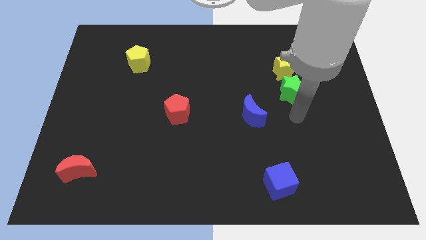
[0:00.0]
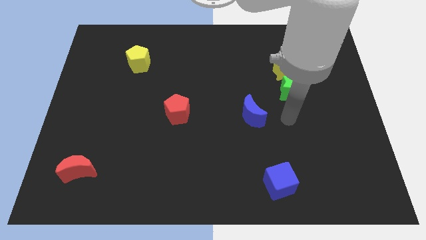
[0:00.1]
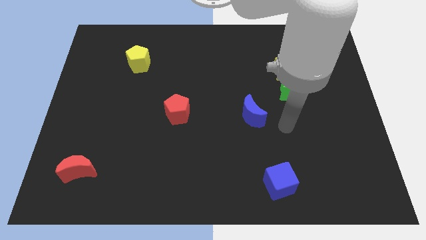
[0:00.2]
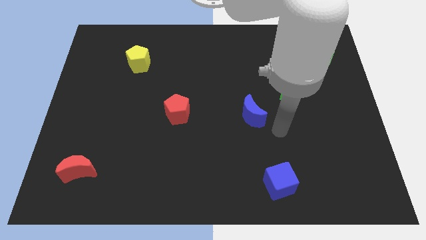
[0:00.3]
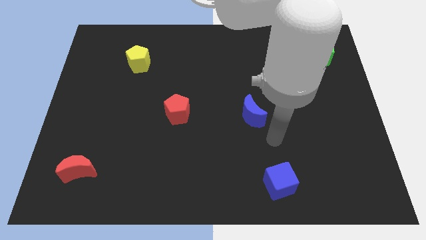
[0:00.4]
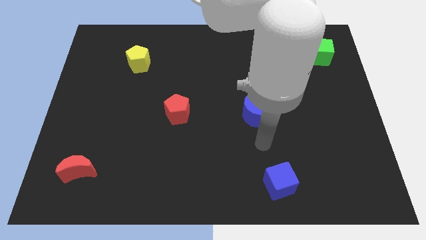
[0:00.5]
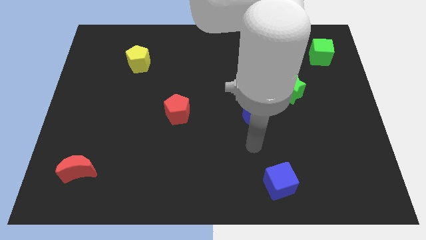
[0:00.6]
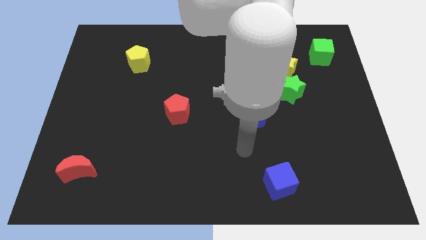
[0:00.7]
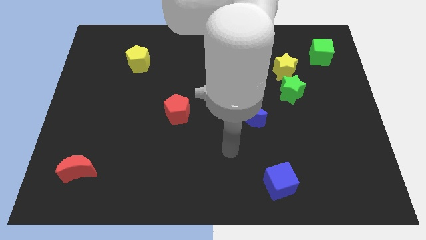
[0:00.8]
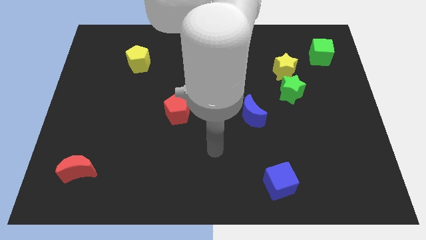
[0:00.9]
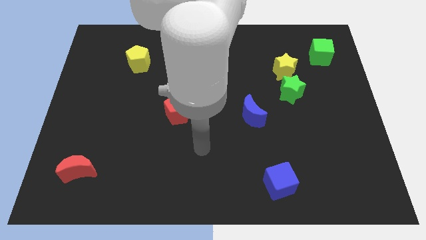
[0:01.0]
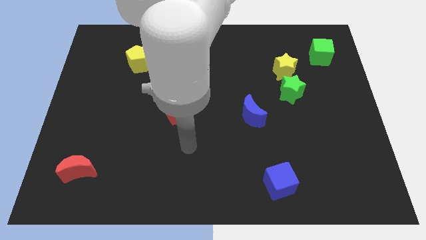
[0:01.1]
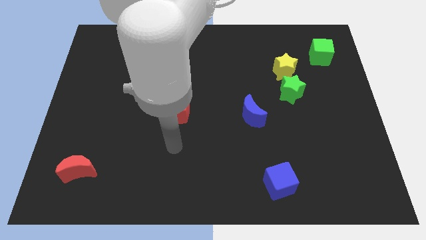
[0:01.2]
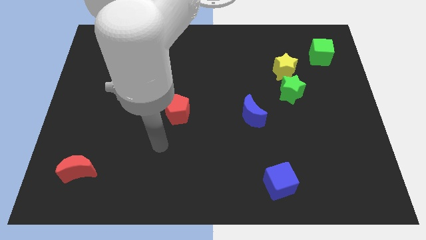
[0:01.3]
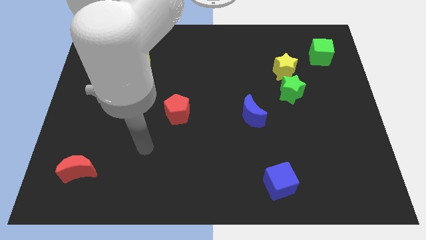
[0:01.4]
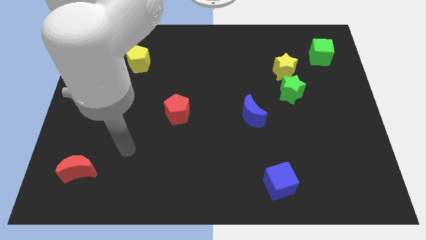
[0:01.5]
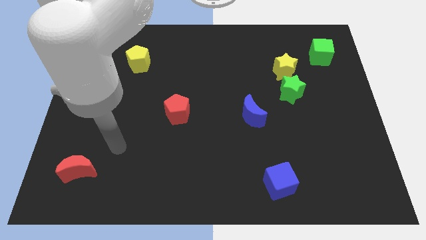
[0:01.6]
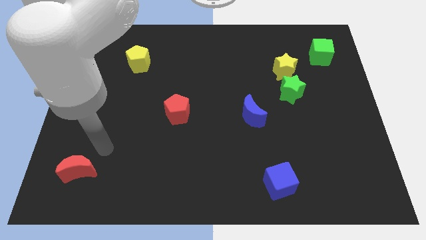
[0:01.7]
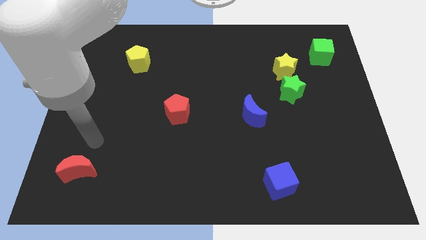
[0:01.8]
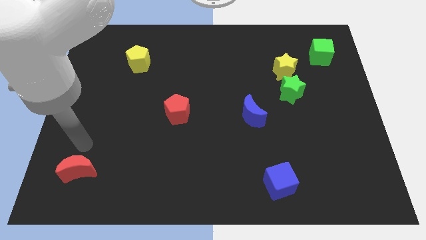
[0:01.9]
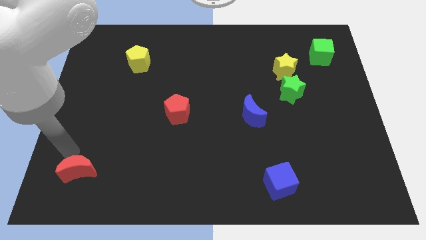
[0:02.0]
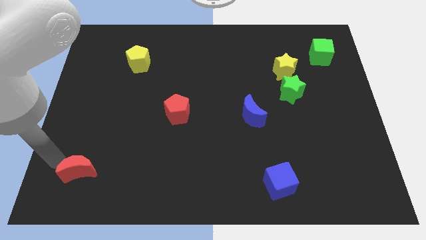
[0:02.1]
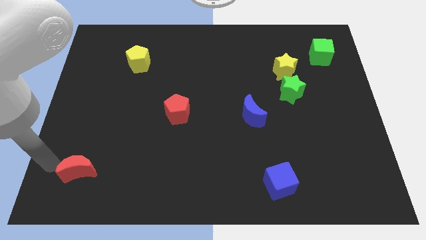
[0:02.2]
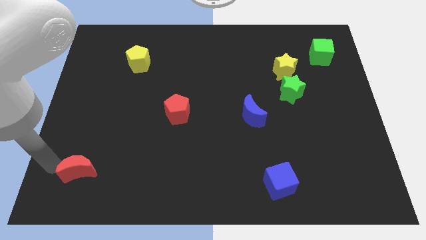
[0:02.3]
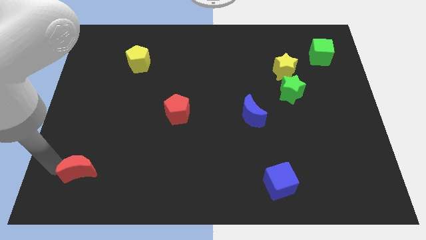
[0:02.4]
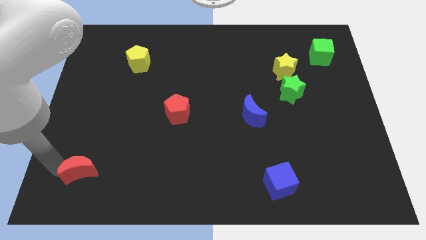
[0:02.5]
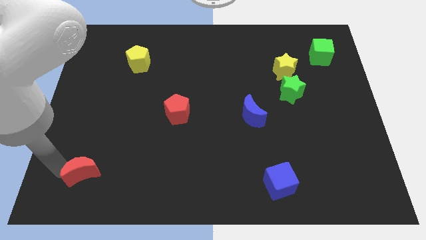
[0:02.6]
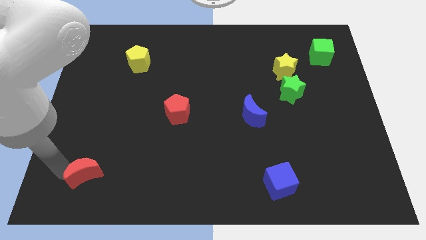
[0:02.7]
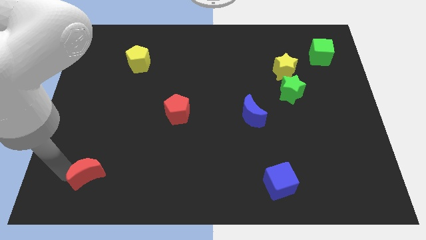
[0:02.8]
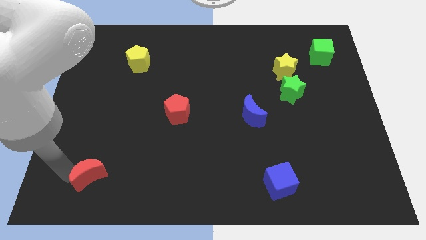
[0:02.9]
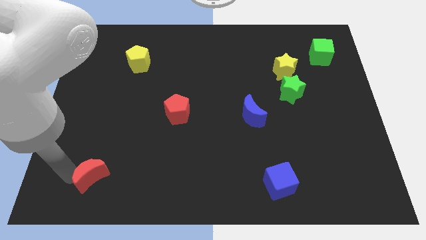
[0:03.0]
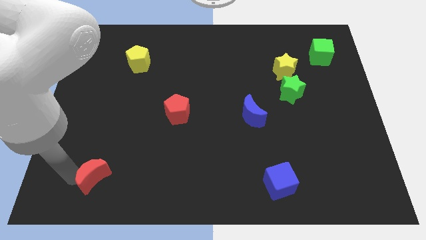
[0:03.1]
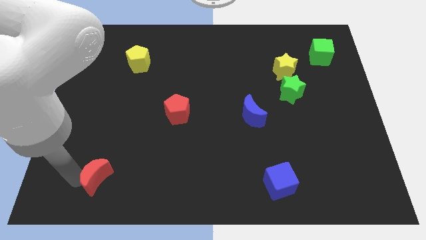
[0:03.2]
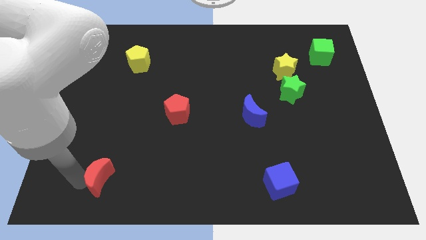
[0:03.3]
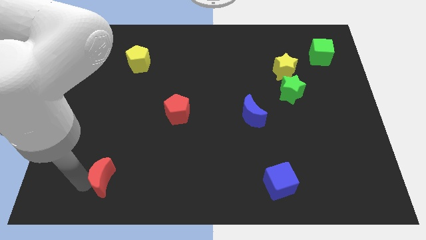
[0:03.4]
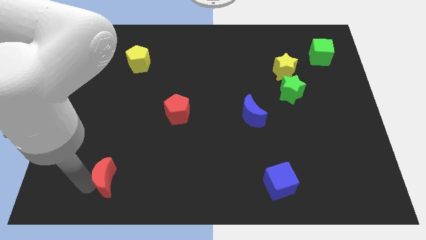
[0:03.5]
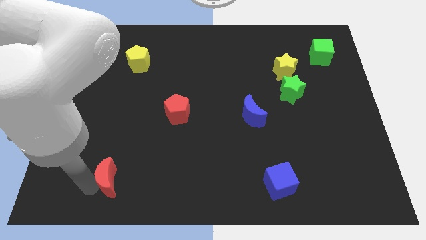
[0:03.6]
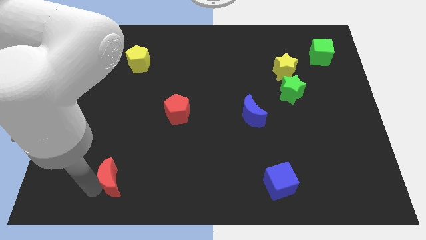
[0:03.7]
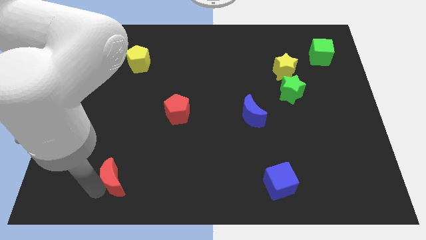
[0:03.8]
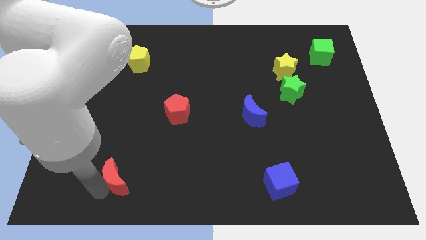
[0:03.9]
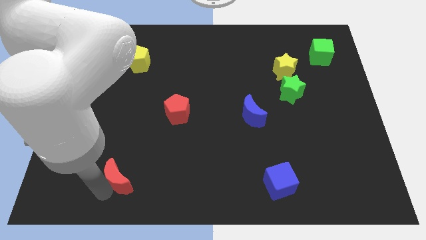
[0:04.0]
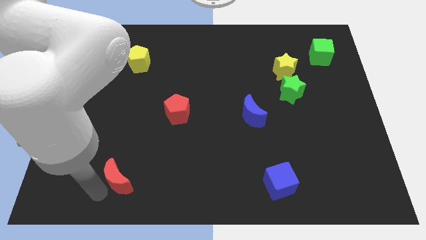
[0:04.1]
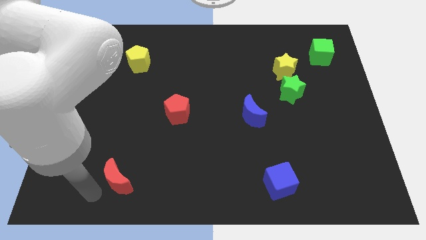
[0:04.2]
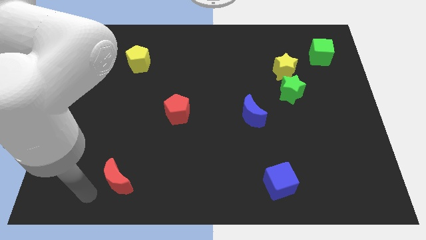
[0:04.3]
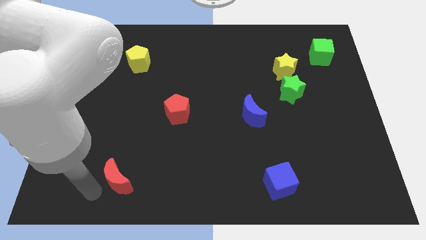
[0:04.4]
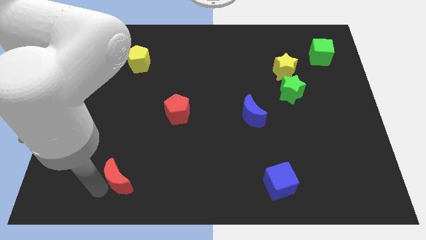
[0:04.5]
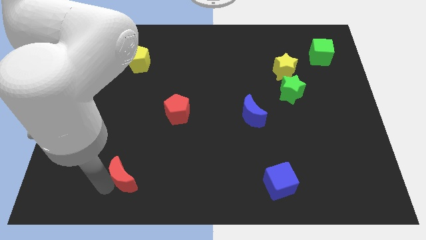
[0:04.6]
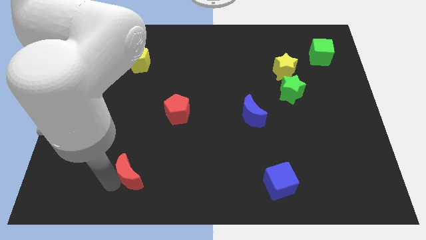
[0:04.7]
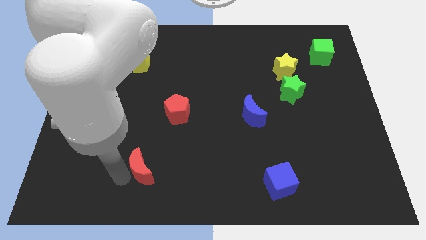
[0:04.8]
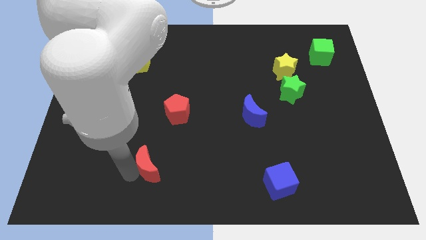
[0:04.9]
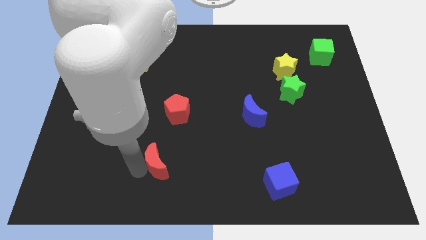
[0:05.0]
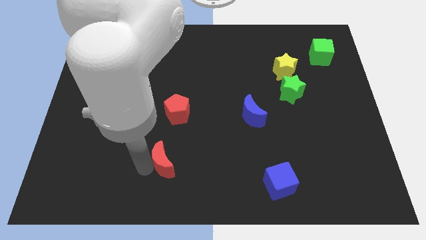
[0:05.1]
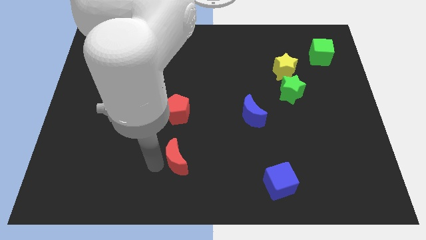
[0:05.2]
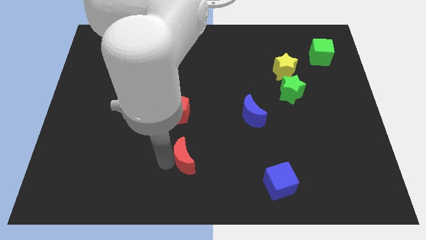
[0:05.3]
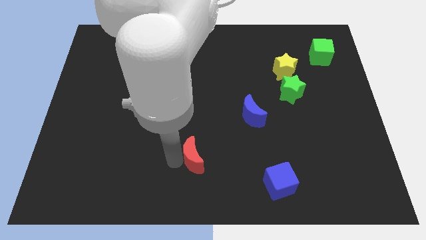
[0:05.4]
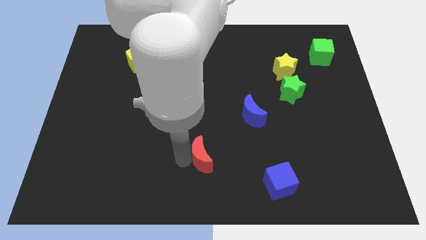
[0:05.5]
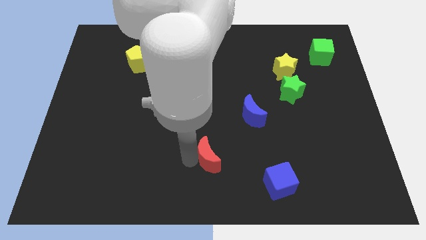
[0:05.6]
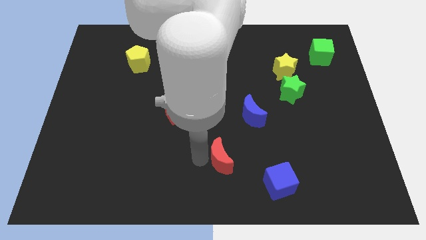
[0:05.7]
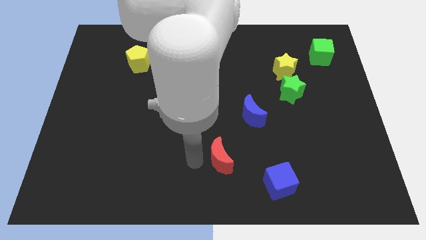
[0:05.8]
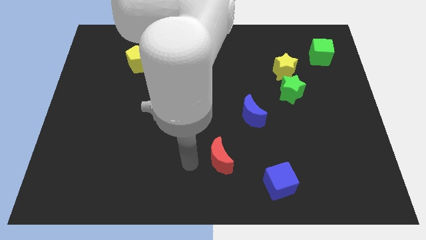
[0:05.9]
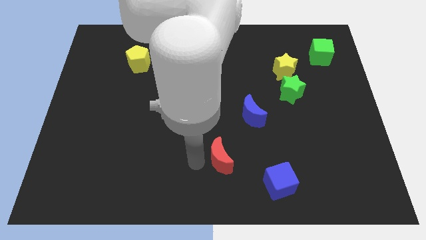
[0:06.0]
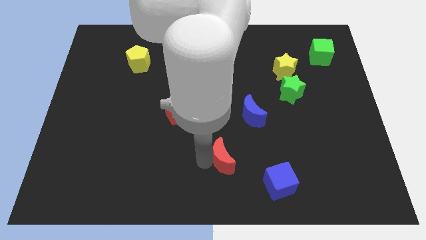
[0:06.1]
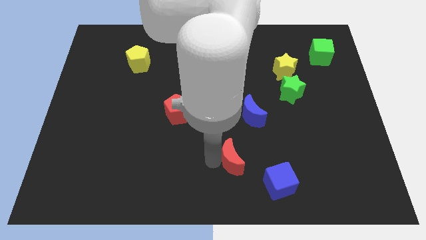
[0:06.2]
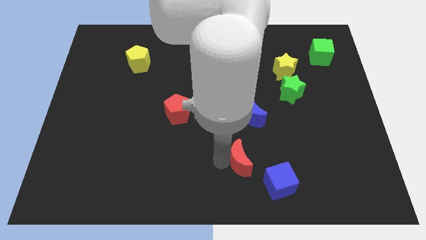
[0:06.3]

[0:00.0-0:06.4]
move the red moon to the bottom side of the blue moon

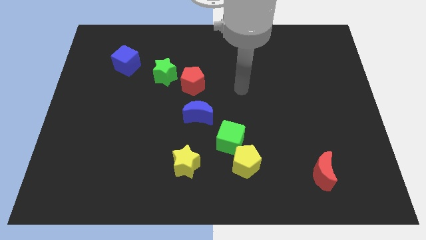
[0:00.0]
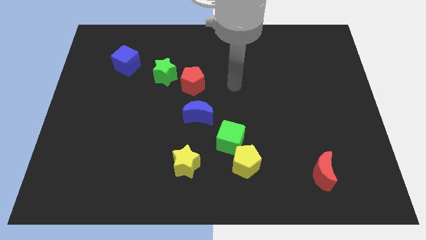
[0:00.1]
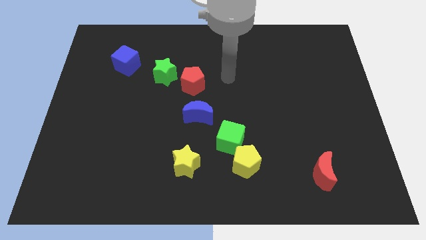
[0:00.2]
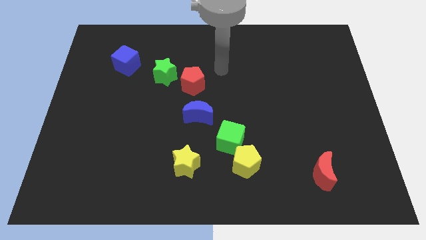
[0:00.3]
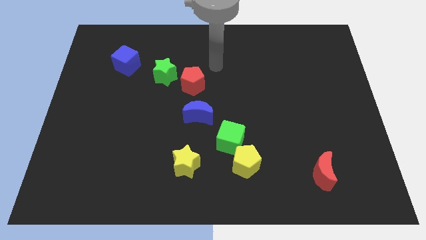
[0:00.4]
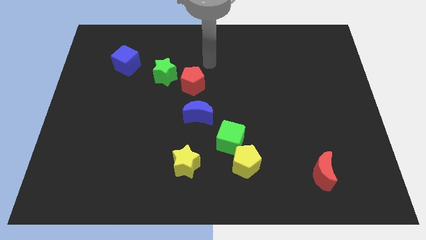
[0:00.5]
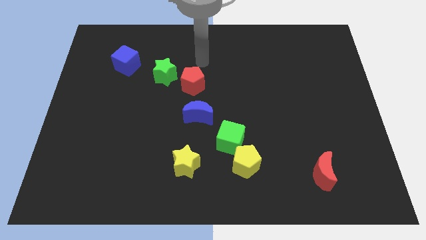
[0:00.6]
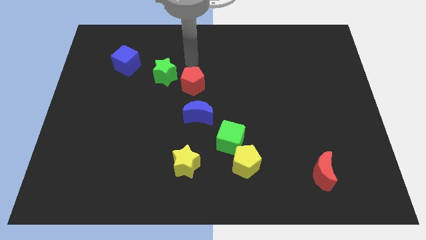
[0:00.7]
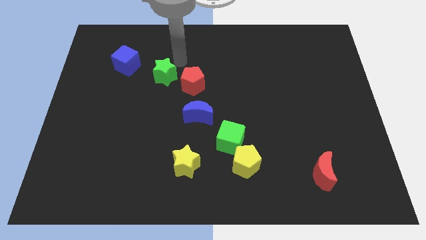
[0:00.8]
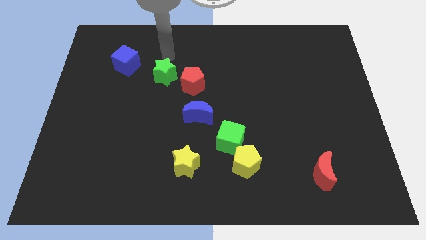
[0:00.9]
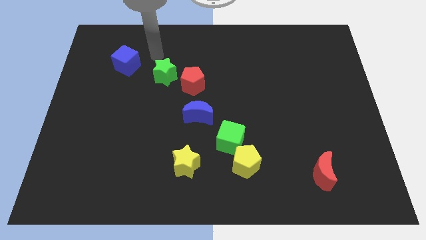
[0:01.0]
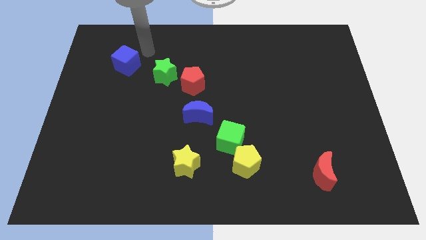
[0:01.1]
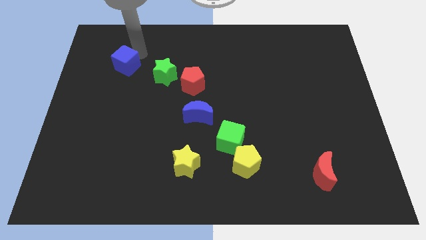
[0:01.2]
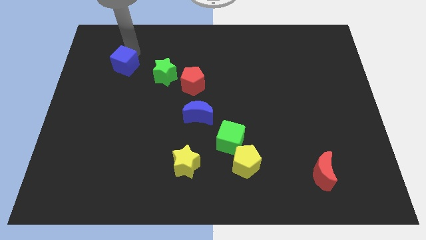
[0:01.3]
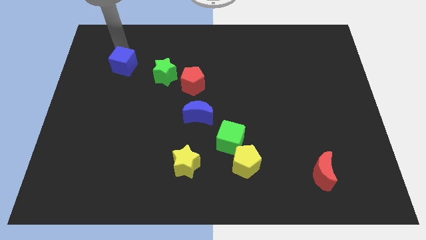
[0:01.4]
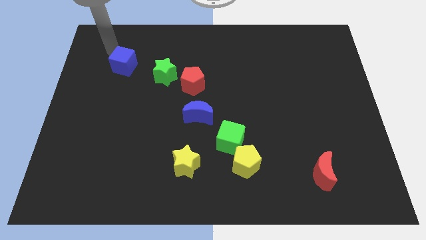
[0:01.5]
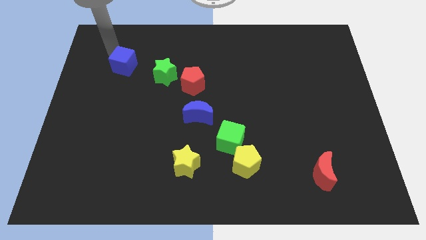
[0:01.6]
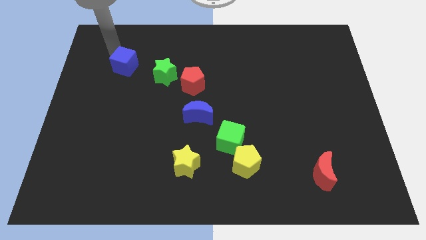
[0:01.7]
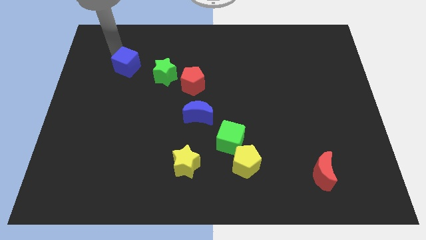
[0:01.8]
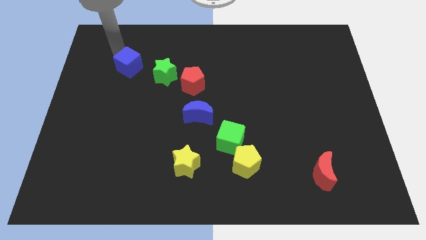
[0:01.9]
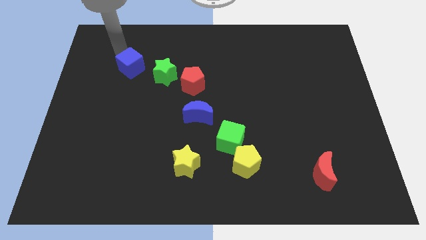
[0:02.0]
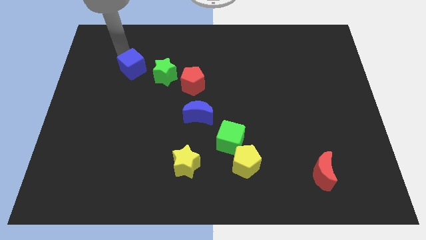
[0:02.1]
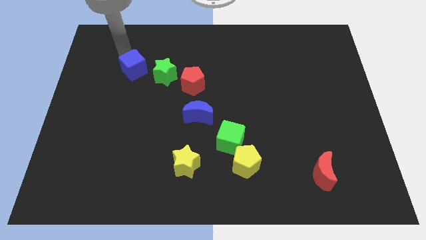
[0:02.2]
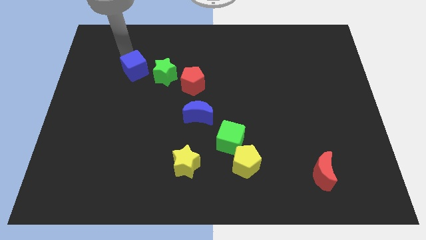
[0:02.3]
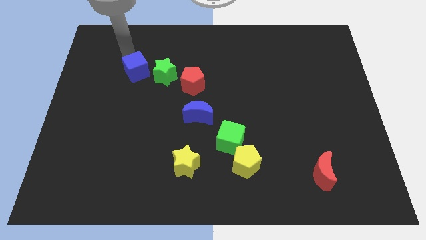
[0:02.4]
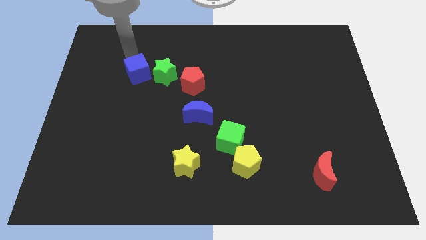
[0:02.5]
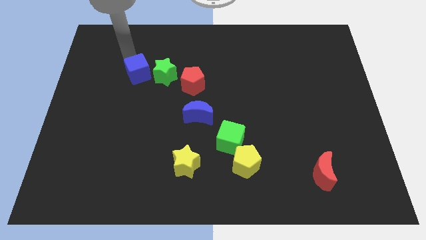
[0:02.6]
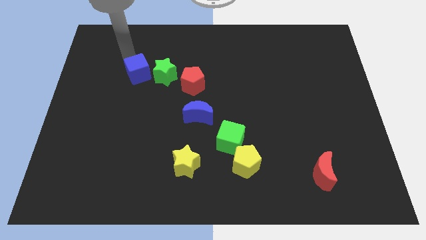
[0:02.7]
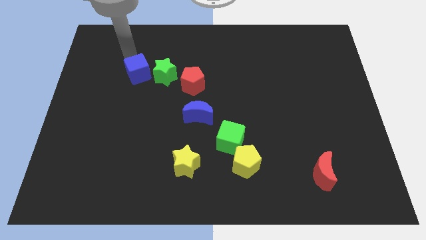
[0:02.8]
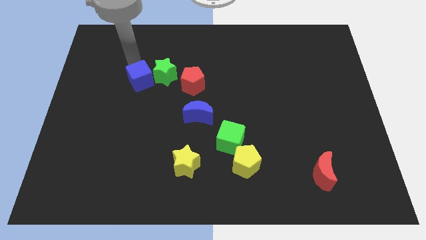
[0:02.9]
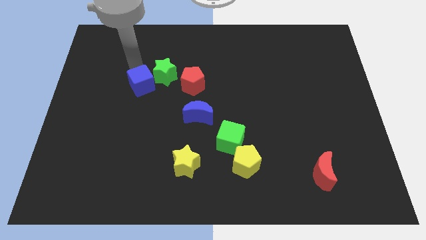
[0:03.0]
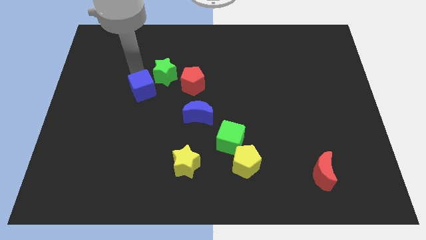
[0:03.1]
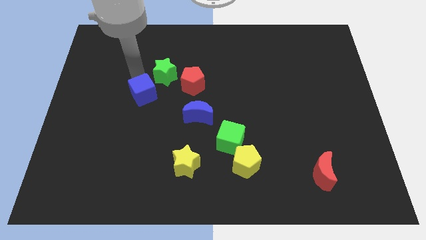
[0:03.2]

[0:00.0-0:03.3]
move the blue cube to the bottom of the green star
